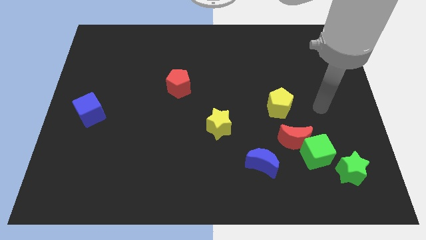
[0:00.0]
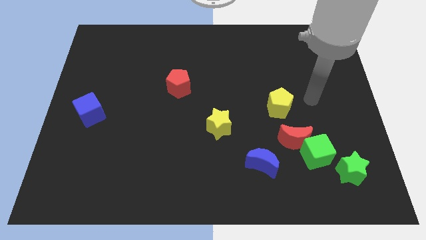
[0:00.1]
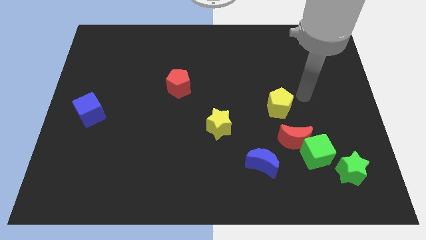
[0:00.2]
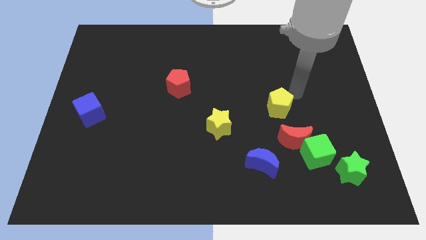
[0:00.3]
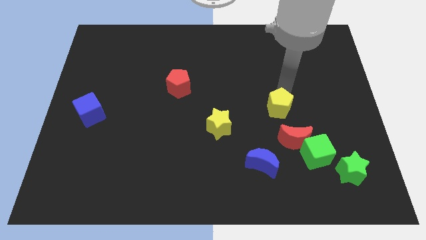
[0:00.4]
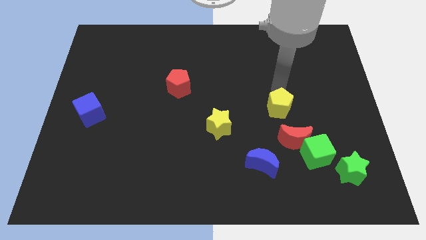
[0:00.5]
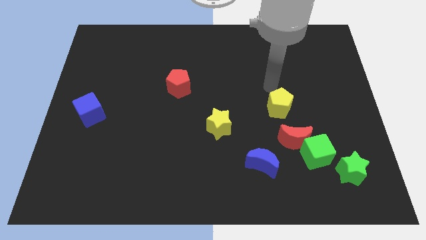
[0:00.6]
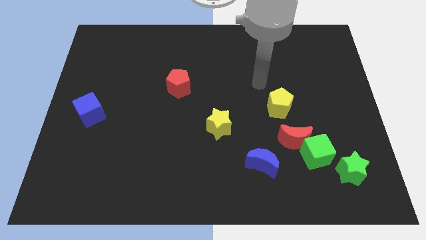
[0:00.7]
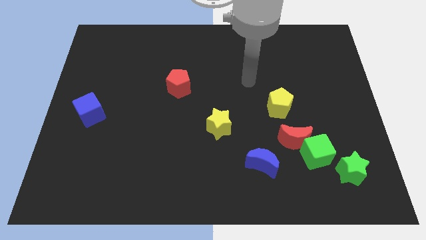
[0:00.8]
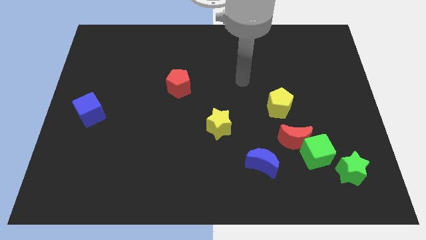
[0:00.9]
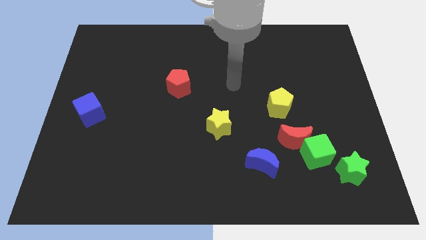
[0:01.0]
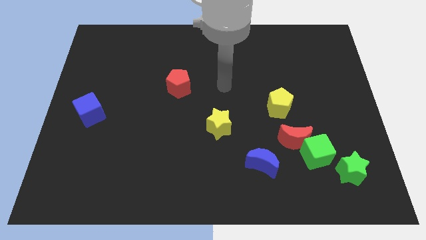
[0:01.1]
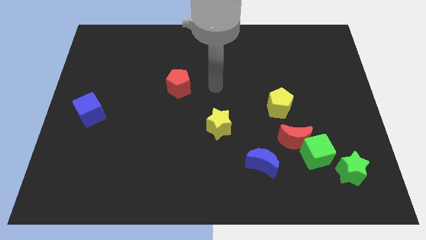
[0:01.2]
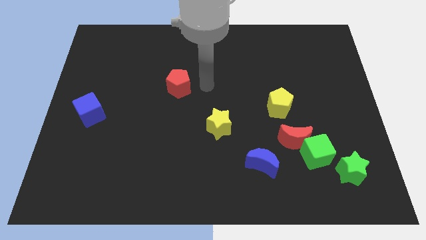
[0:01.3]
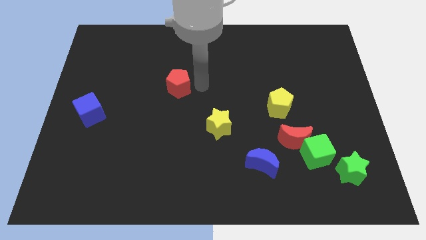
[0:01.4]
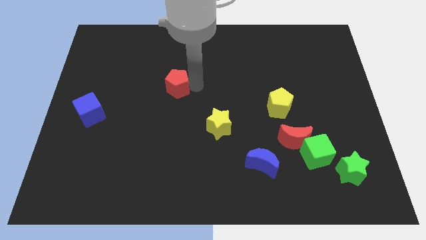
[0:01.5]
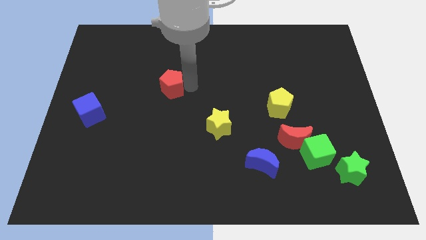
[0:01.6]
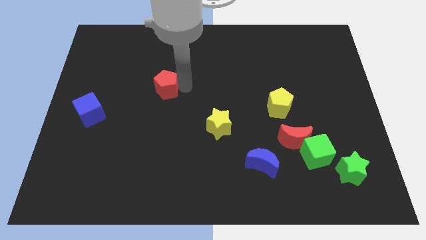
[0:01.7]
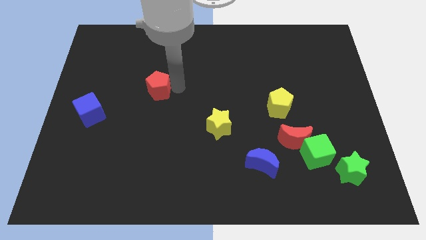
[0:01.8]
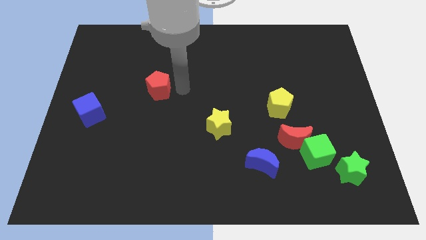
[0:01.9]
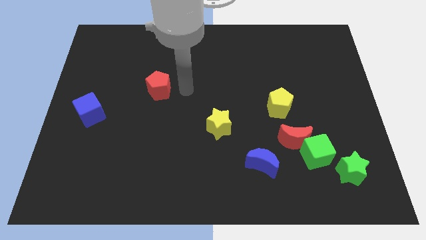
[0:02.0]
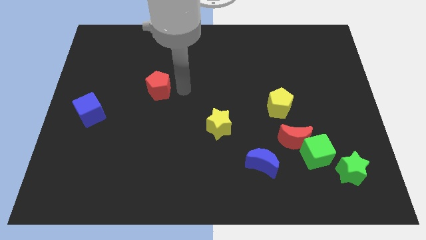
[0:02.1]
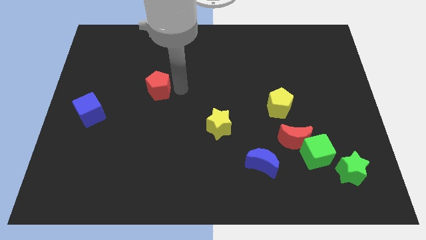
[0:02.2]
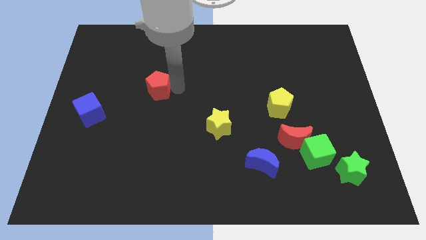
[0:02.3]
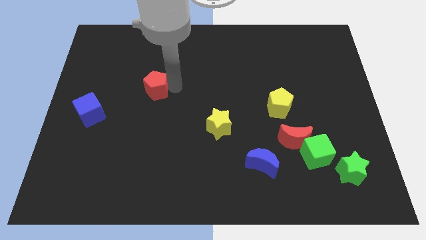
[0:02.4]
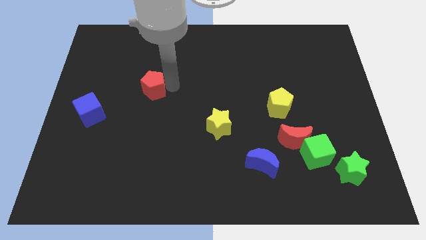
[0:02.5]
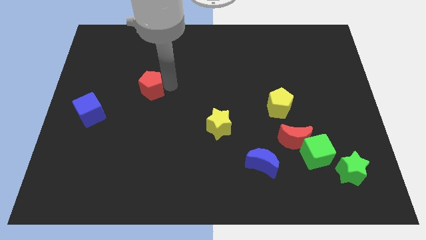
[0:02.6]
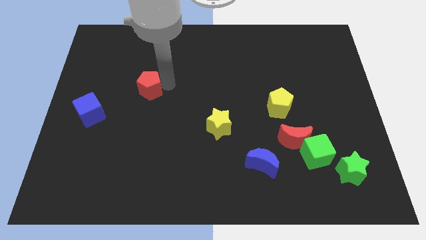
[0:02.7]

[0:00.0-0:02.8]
slightly push the red pentagon to the left

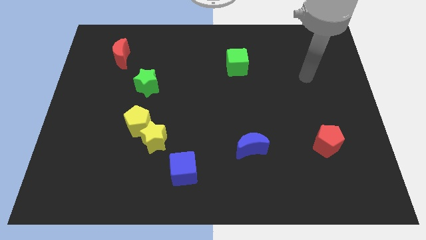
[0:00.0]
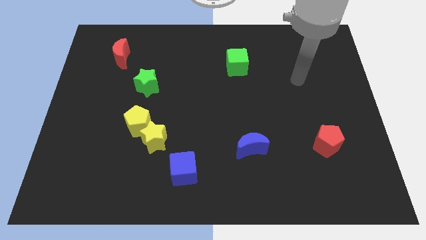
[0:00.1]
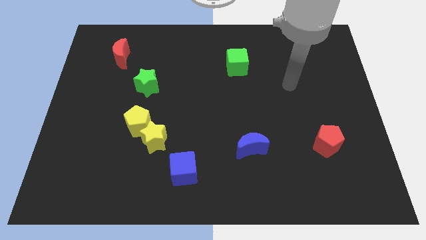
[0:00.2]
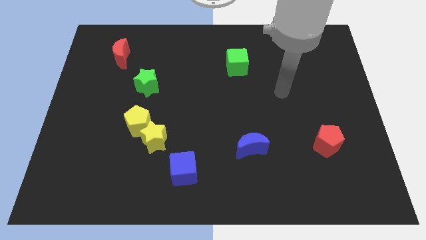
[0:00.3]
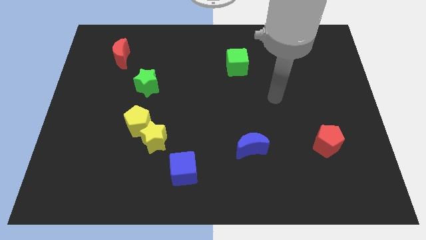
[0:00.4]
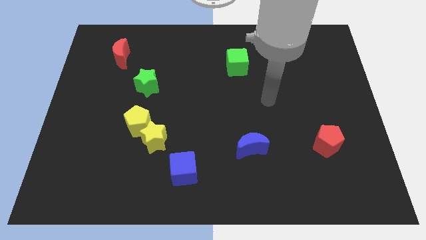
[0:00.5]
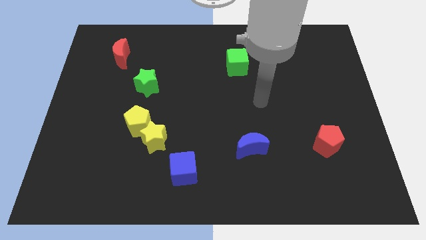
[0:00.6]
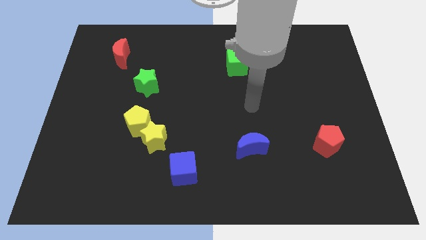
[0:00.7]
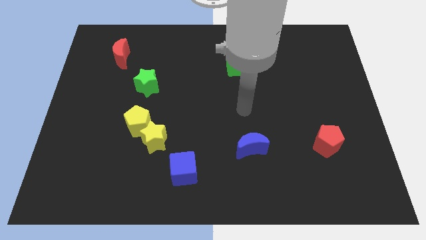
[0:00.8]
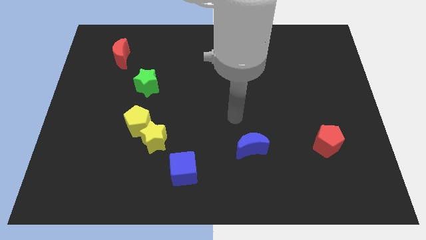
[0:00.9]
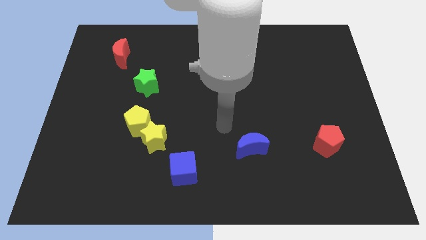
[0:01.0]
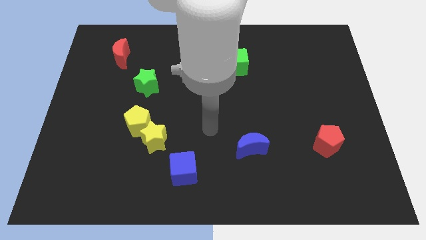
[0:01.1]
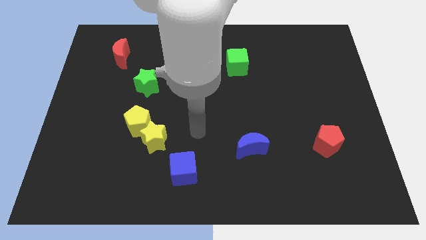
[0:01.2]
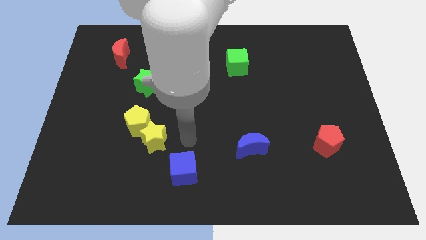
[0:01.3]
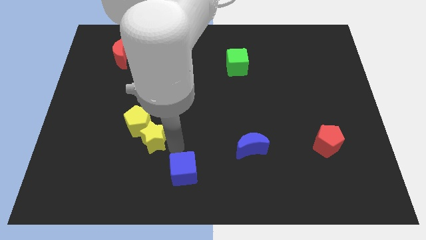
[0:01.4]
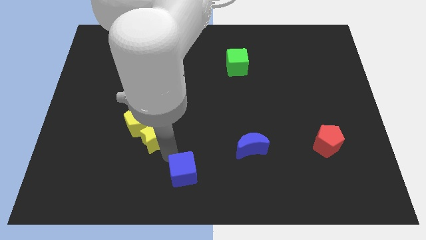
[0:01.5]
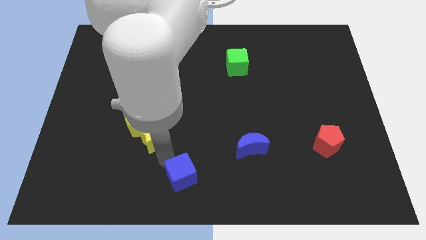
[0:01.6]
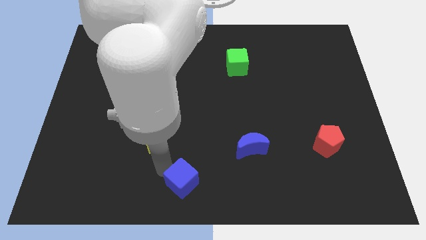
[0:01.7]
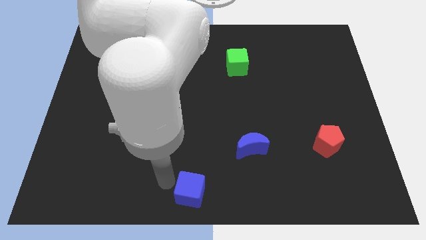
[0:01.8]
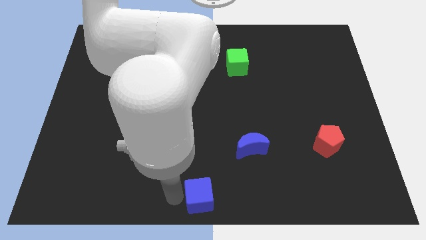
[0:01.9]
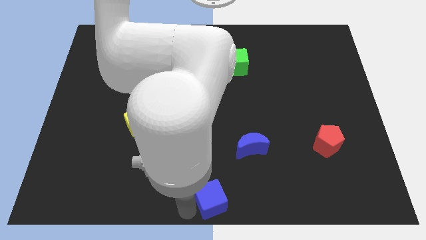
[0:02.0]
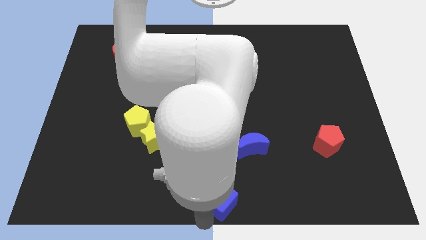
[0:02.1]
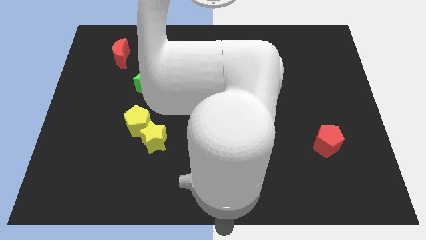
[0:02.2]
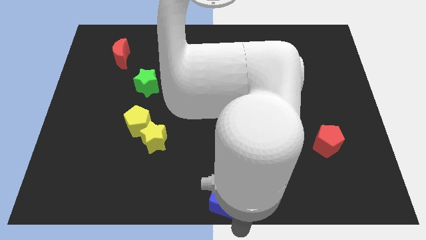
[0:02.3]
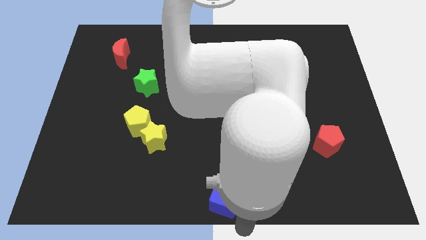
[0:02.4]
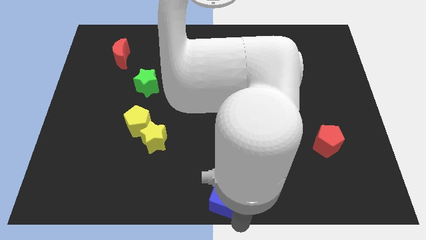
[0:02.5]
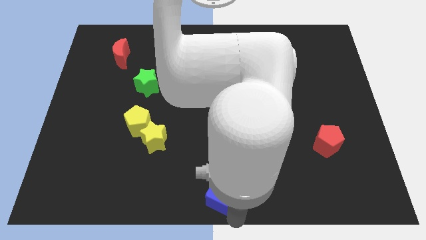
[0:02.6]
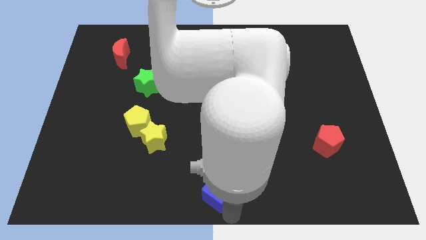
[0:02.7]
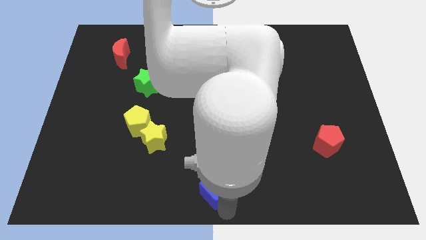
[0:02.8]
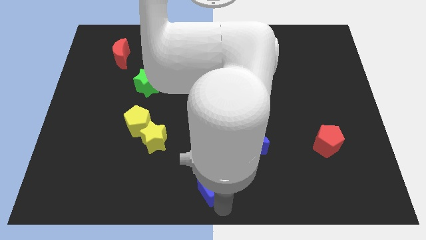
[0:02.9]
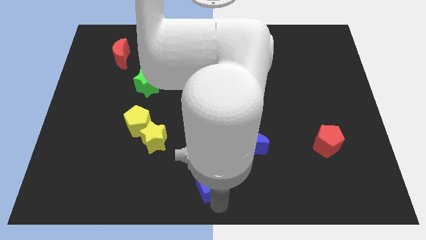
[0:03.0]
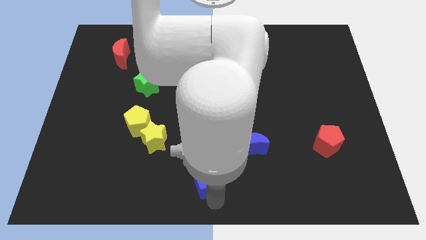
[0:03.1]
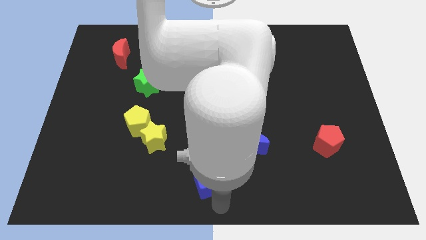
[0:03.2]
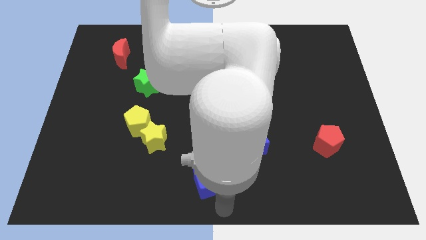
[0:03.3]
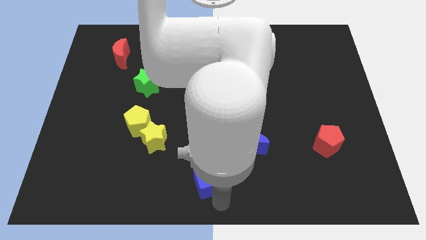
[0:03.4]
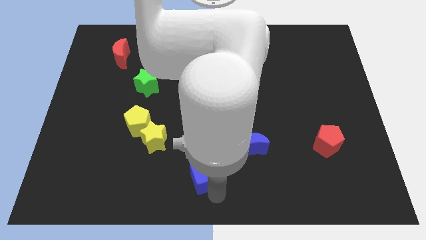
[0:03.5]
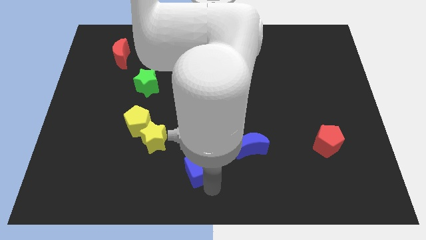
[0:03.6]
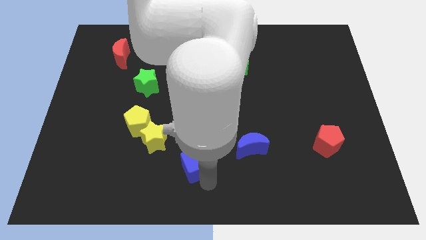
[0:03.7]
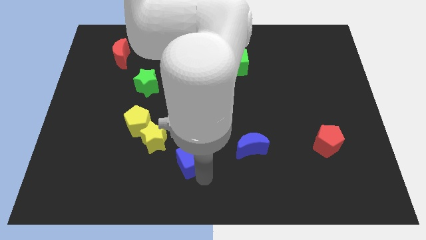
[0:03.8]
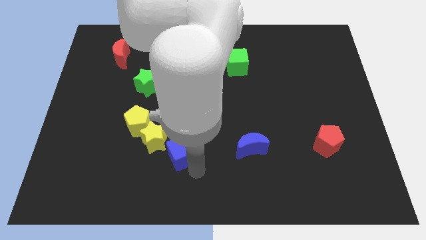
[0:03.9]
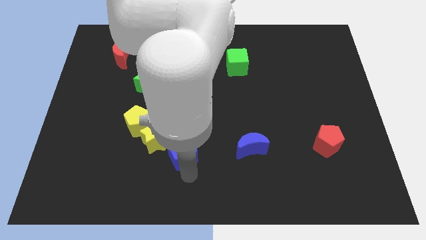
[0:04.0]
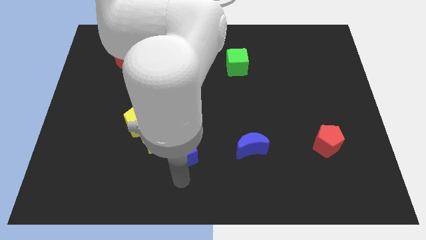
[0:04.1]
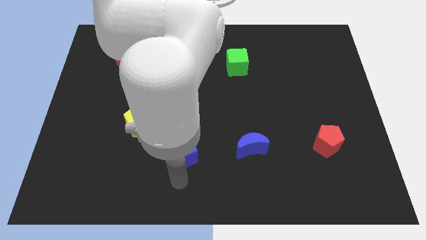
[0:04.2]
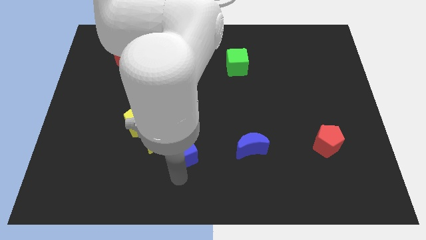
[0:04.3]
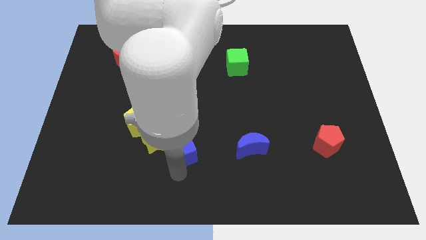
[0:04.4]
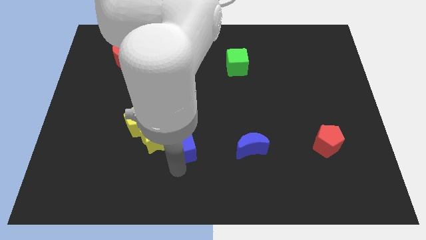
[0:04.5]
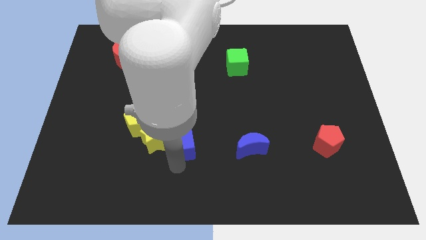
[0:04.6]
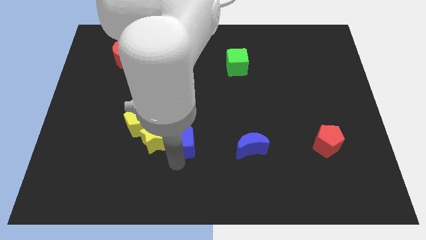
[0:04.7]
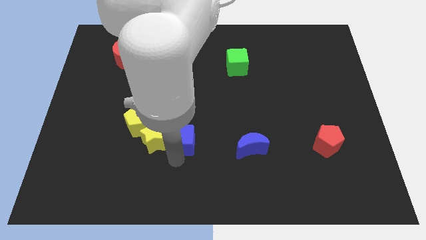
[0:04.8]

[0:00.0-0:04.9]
move the blue cube a little bit upwards

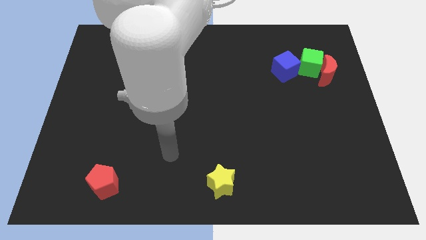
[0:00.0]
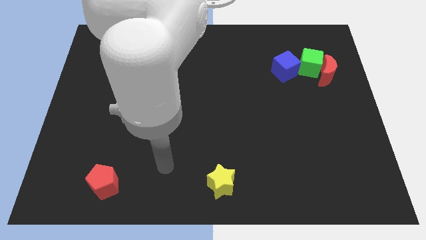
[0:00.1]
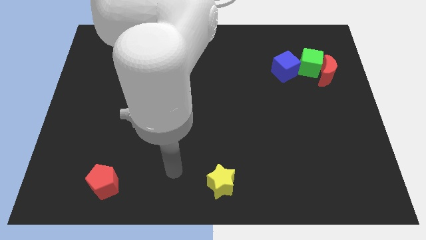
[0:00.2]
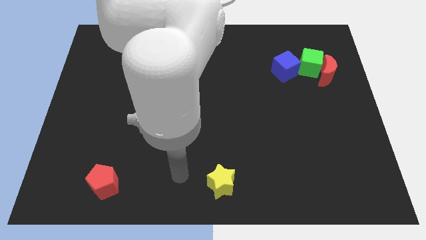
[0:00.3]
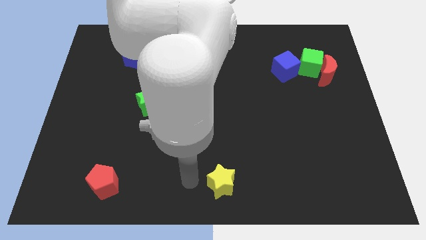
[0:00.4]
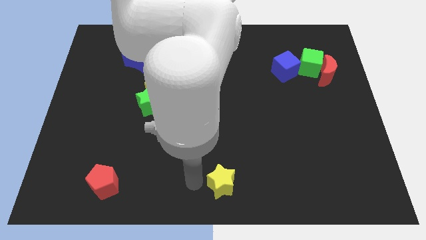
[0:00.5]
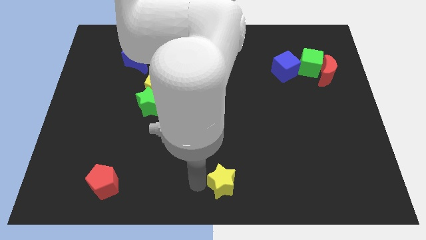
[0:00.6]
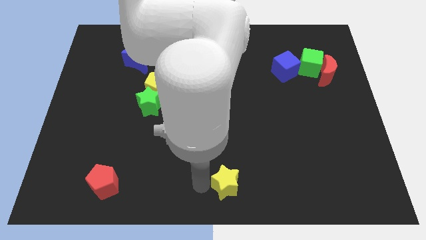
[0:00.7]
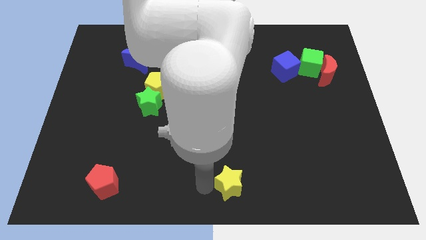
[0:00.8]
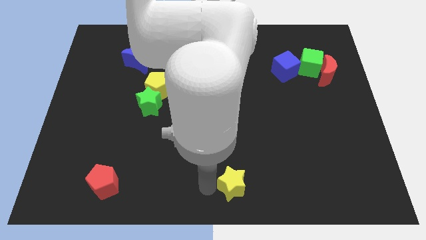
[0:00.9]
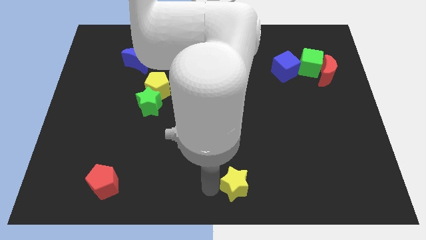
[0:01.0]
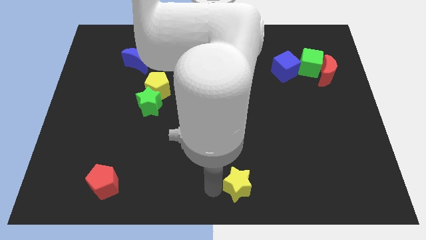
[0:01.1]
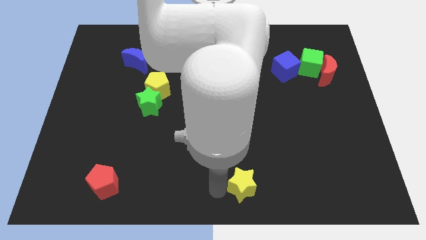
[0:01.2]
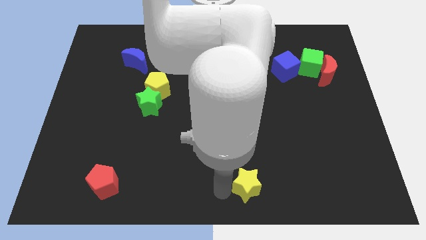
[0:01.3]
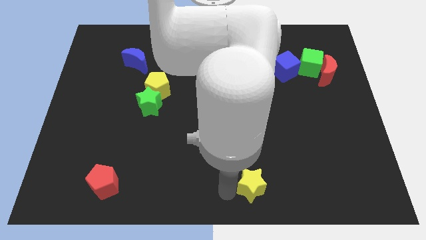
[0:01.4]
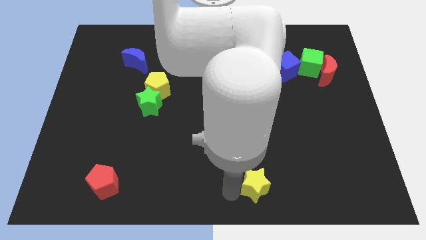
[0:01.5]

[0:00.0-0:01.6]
move the yellow star to the right a bit
